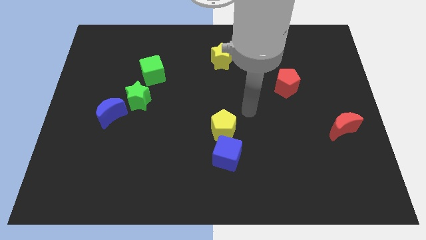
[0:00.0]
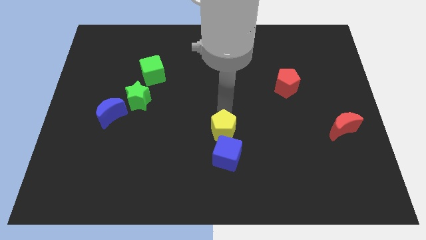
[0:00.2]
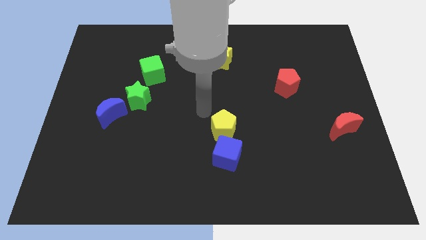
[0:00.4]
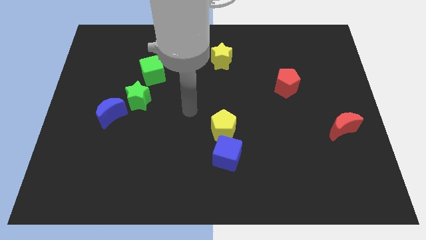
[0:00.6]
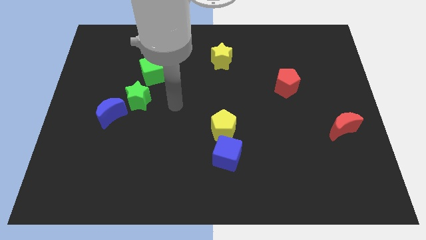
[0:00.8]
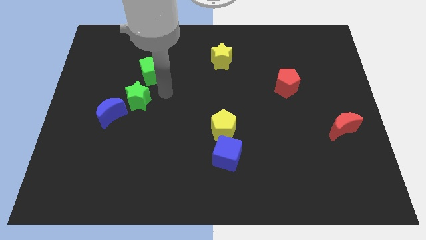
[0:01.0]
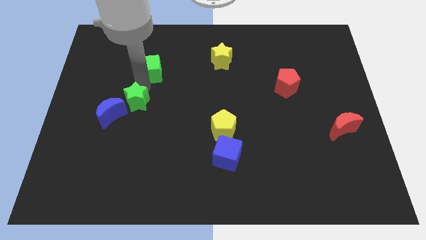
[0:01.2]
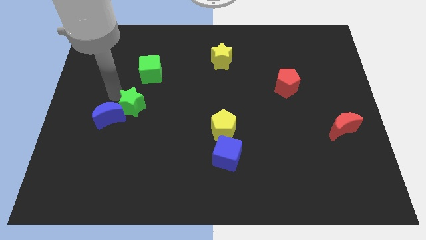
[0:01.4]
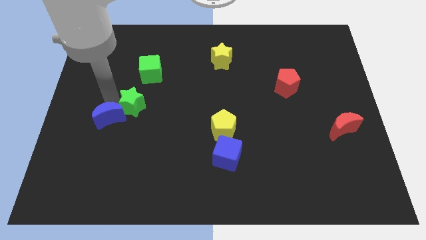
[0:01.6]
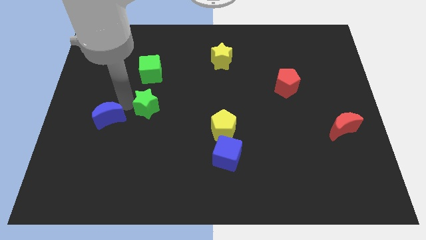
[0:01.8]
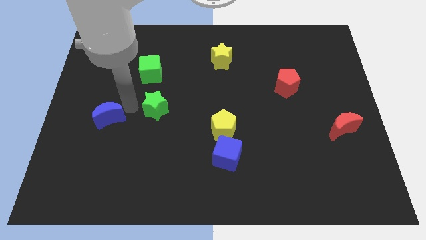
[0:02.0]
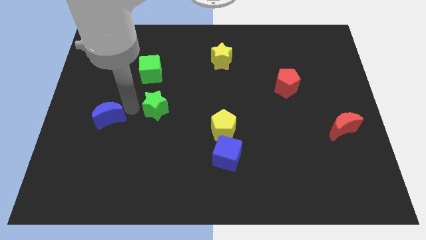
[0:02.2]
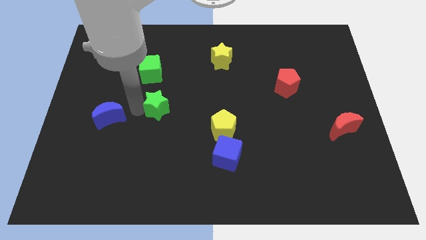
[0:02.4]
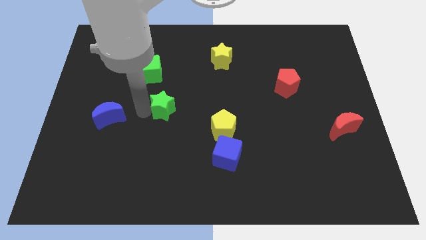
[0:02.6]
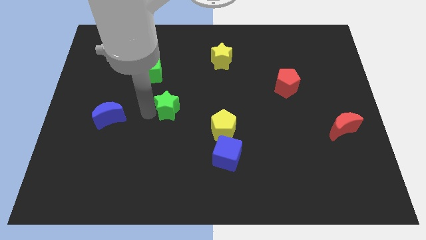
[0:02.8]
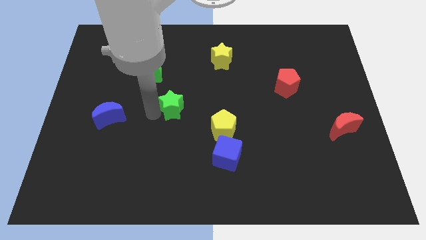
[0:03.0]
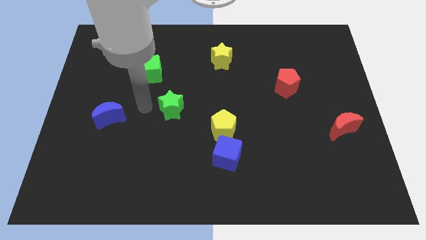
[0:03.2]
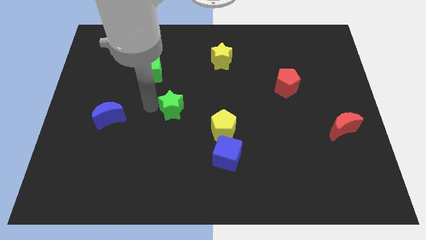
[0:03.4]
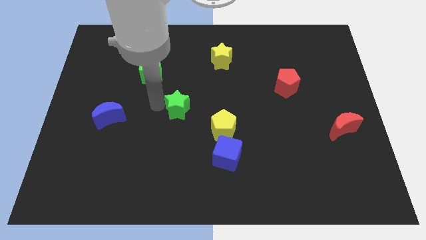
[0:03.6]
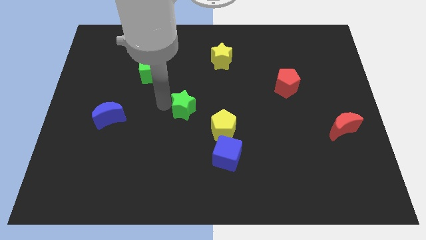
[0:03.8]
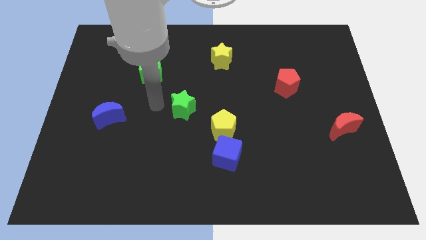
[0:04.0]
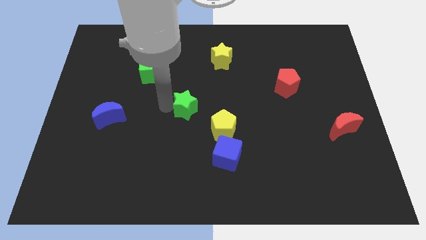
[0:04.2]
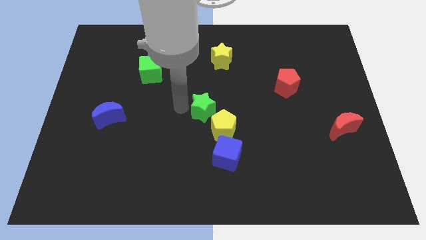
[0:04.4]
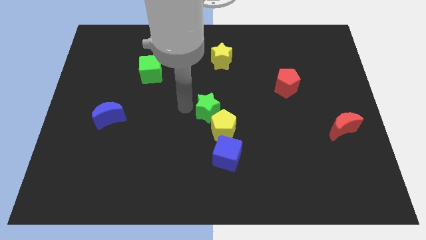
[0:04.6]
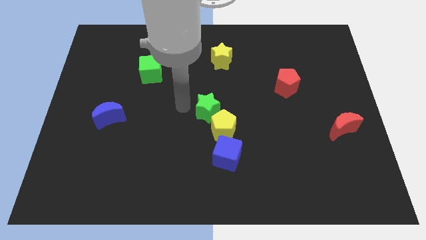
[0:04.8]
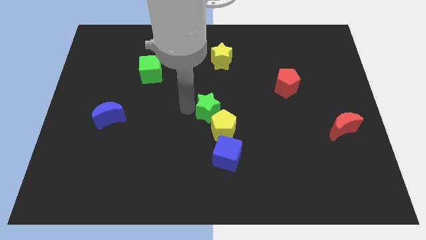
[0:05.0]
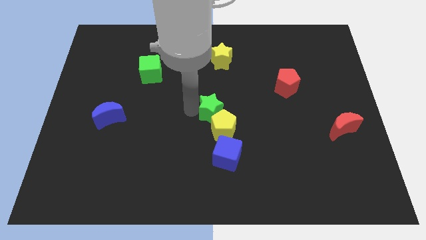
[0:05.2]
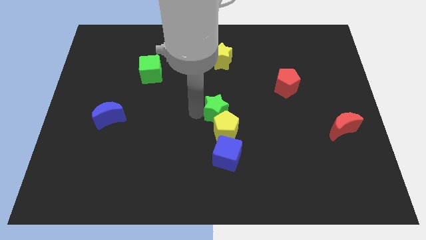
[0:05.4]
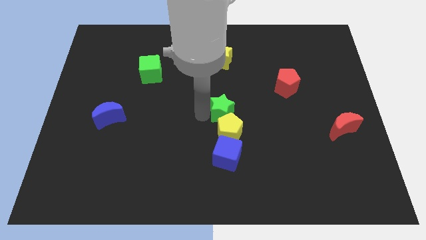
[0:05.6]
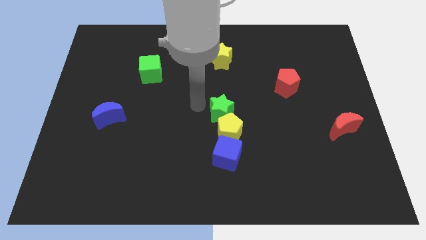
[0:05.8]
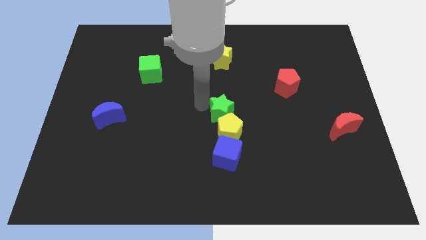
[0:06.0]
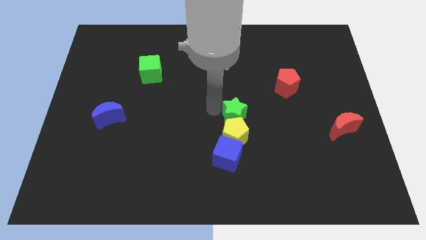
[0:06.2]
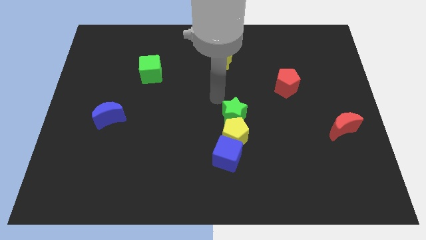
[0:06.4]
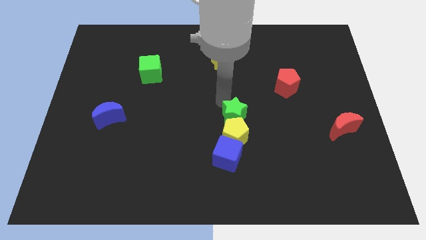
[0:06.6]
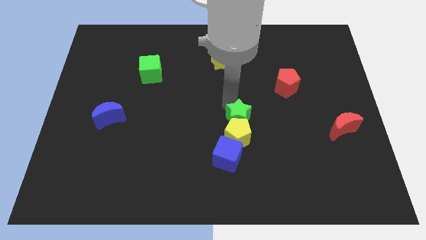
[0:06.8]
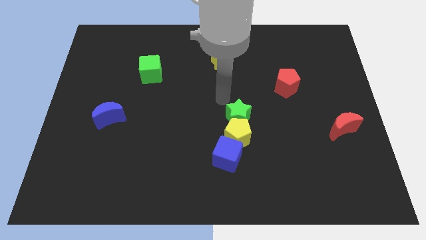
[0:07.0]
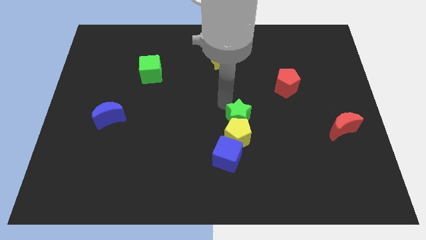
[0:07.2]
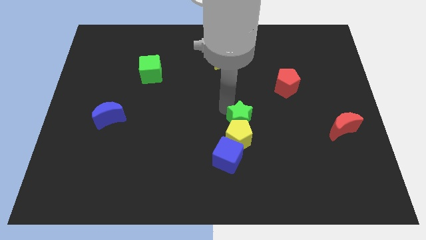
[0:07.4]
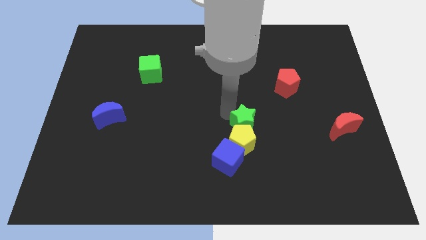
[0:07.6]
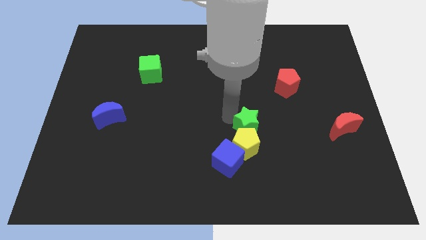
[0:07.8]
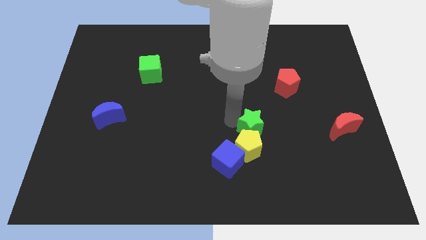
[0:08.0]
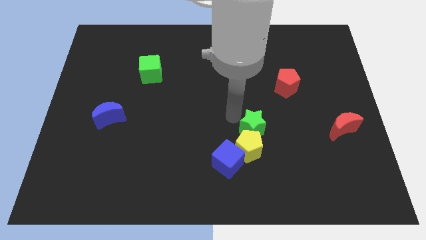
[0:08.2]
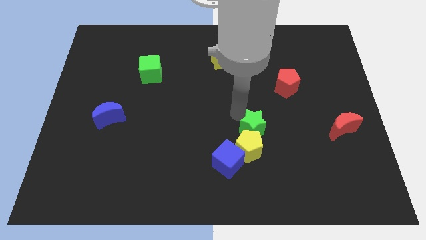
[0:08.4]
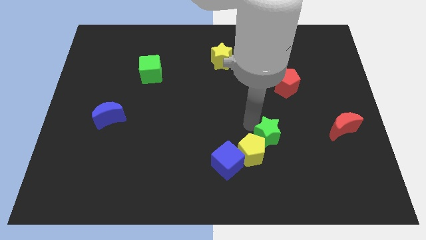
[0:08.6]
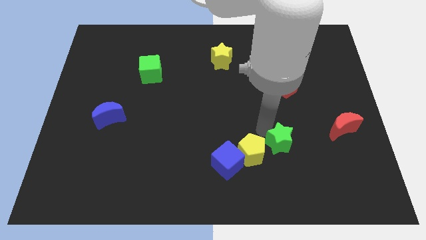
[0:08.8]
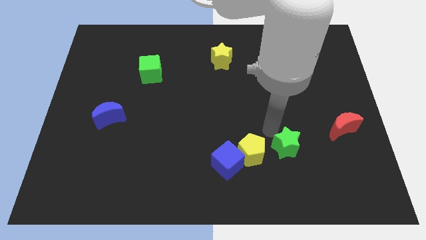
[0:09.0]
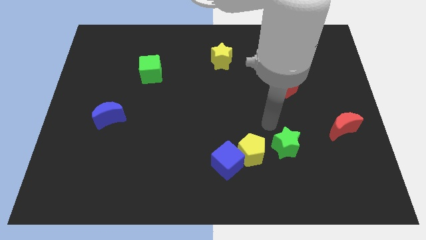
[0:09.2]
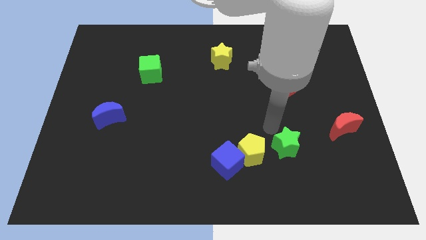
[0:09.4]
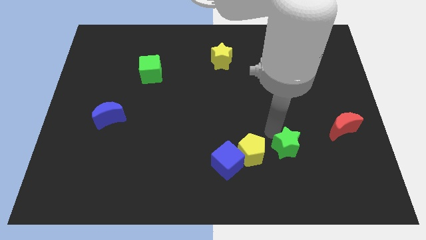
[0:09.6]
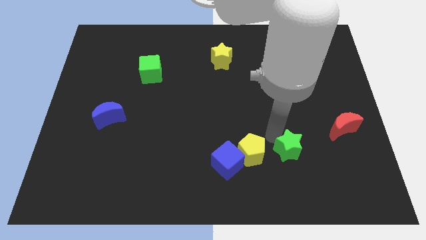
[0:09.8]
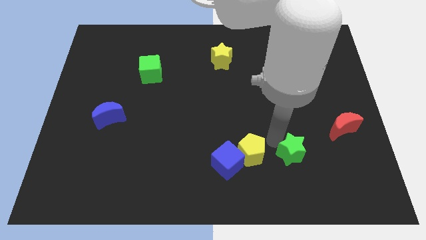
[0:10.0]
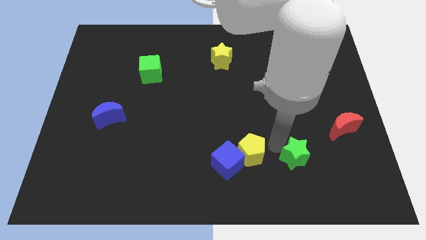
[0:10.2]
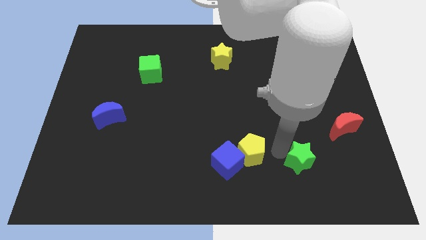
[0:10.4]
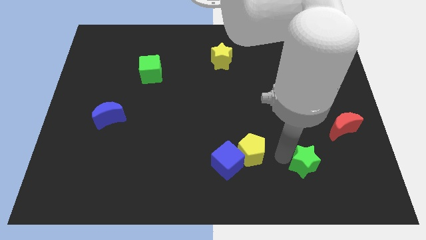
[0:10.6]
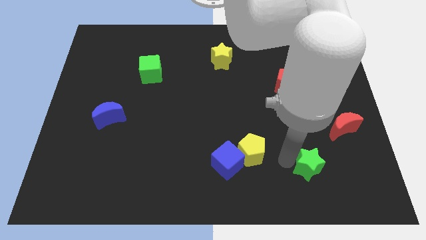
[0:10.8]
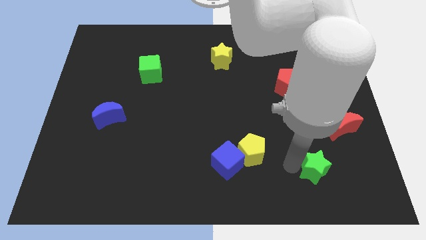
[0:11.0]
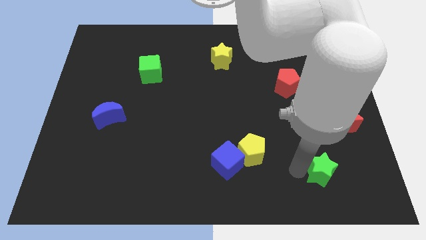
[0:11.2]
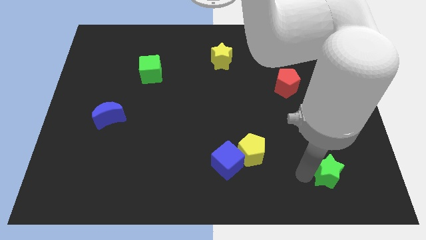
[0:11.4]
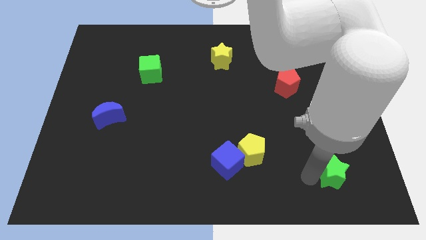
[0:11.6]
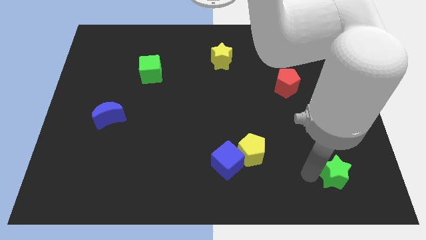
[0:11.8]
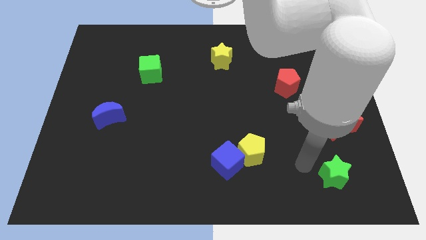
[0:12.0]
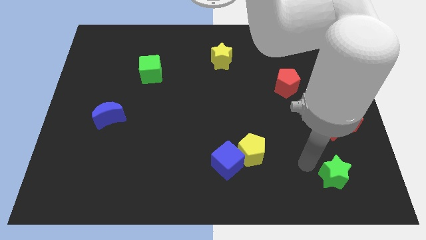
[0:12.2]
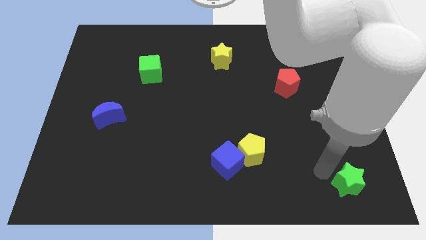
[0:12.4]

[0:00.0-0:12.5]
move the green star to the bottom right

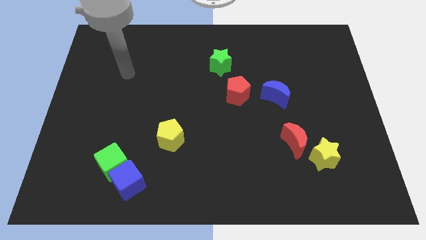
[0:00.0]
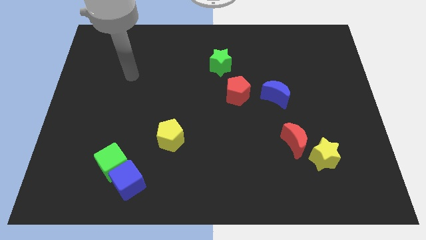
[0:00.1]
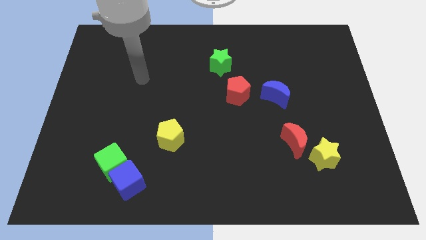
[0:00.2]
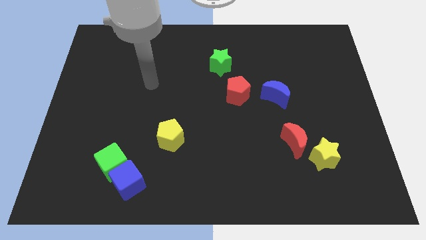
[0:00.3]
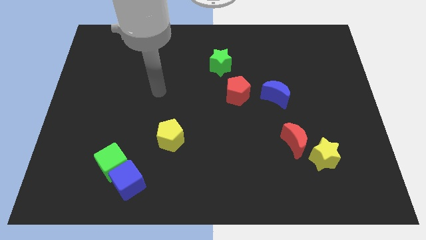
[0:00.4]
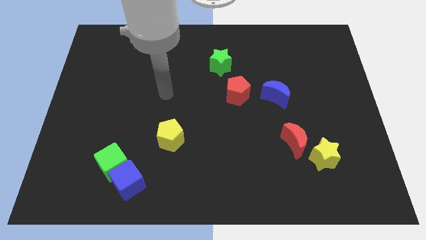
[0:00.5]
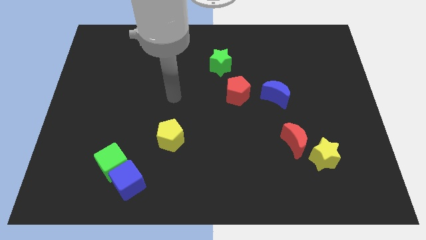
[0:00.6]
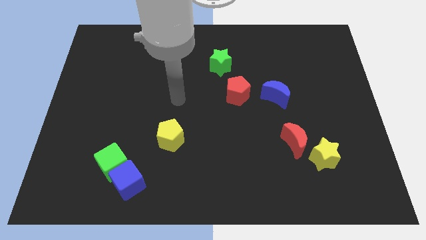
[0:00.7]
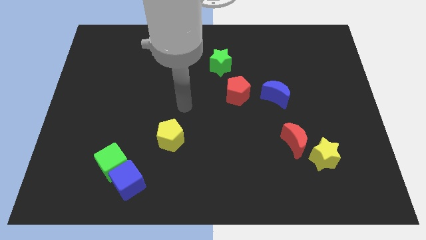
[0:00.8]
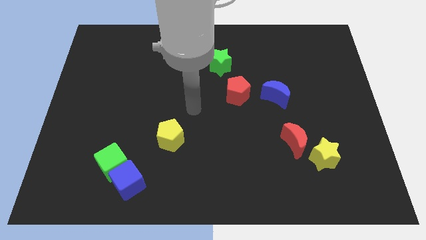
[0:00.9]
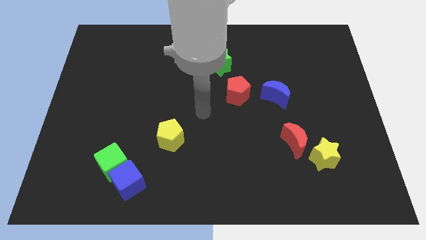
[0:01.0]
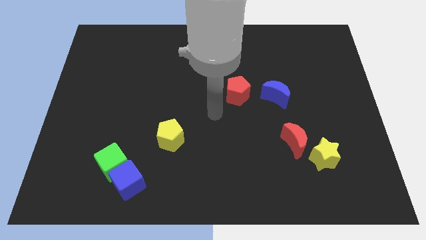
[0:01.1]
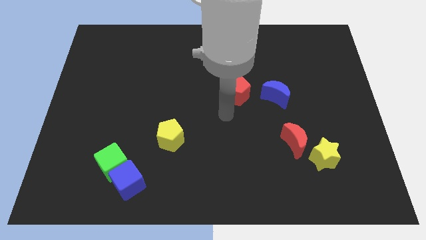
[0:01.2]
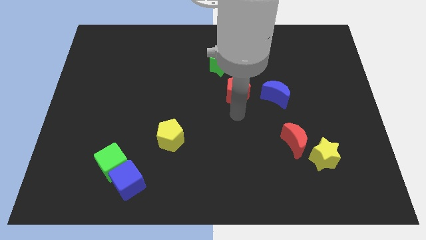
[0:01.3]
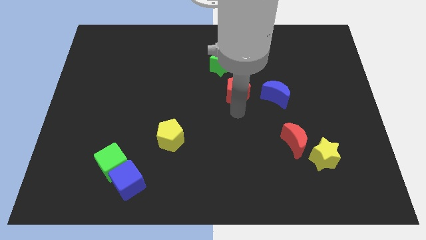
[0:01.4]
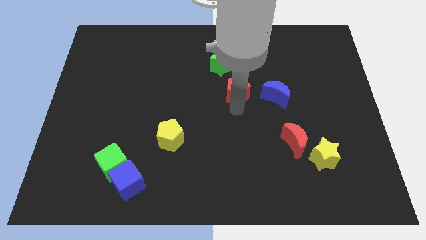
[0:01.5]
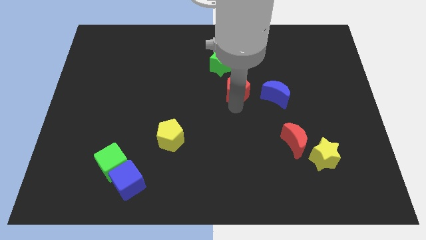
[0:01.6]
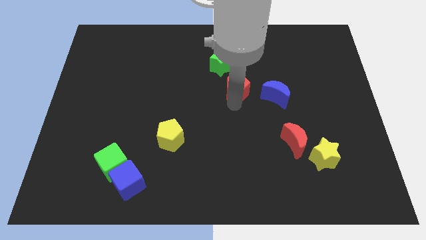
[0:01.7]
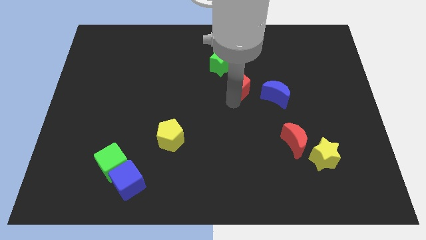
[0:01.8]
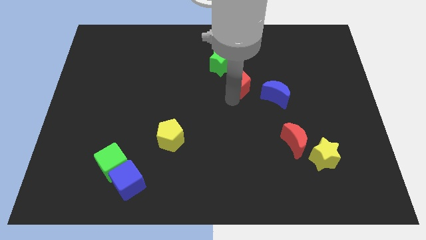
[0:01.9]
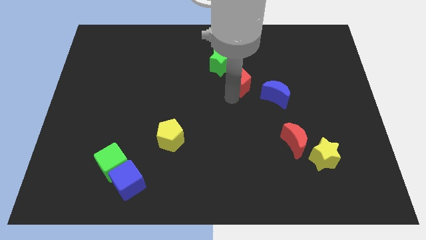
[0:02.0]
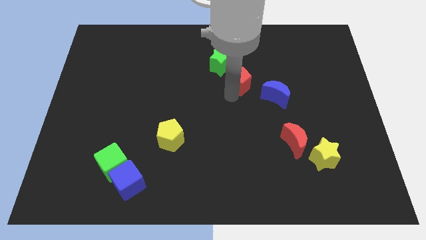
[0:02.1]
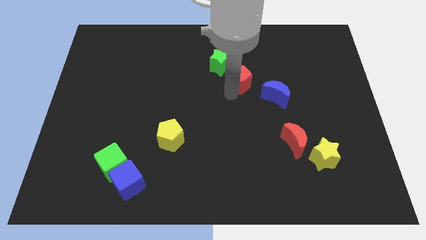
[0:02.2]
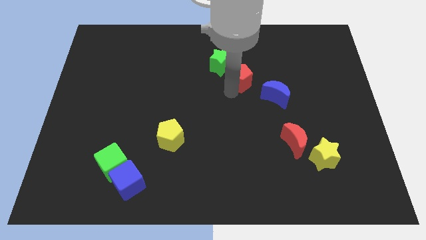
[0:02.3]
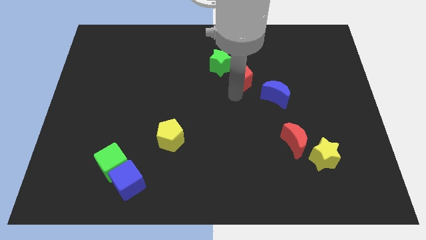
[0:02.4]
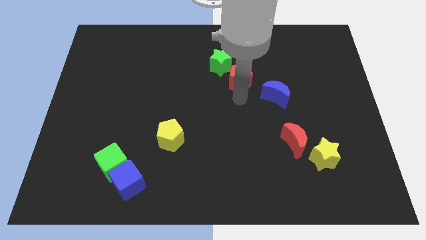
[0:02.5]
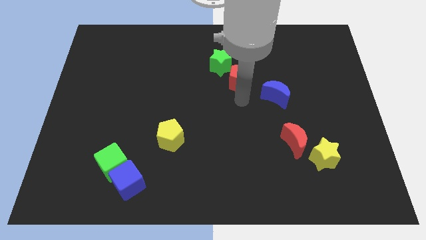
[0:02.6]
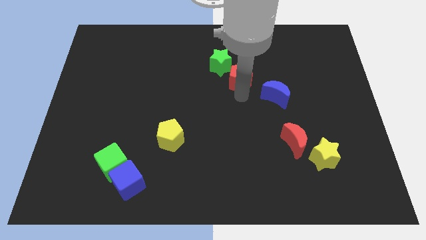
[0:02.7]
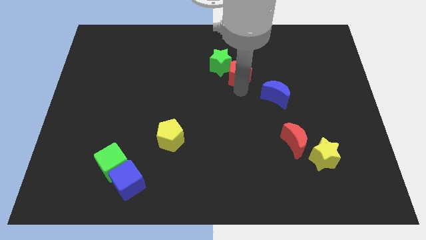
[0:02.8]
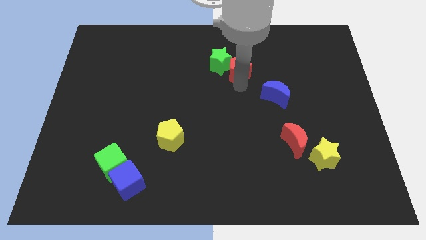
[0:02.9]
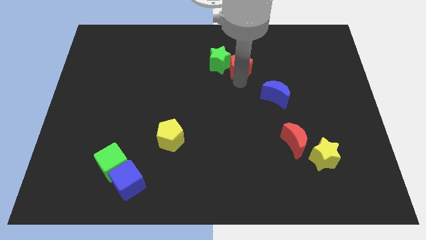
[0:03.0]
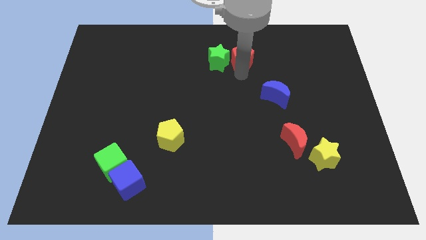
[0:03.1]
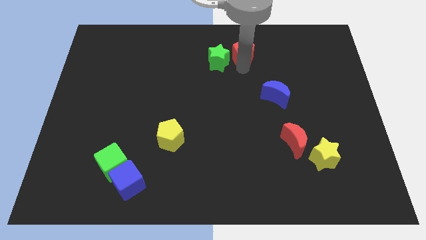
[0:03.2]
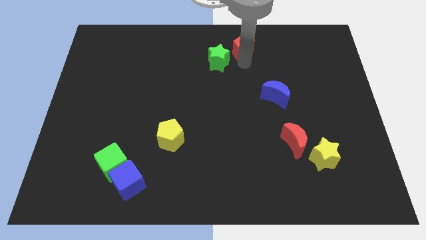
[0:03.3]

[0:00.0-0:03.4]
move the red pentagon to the towards your base
